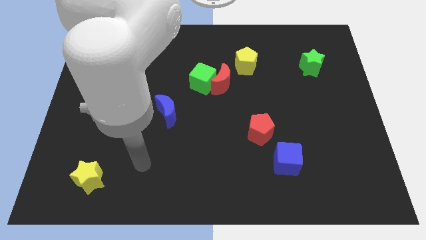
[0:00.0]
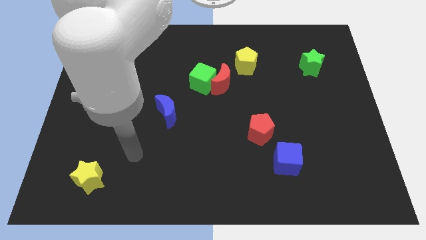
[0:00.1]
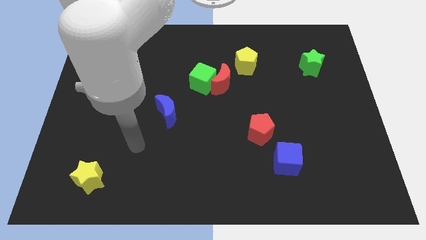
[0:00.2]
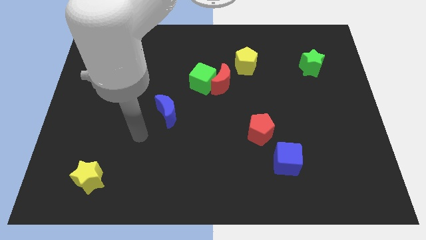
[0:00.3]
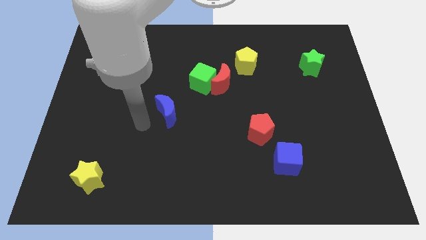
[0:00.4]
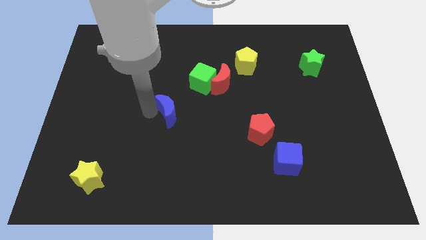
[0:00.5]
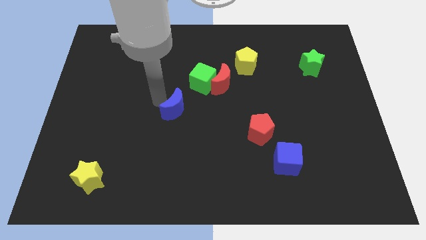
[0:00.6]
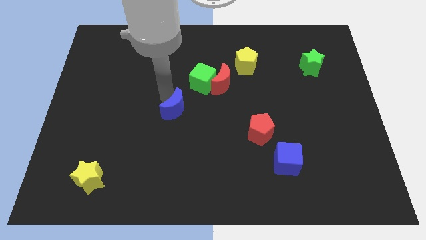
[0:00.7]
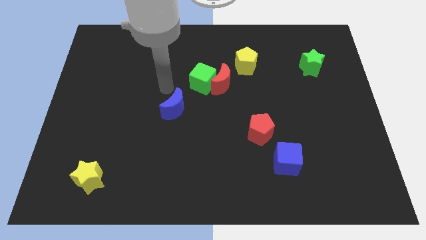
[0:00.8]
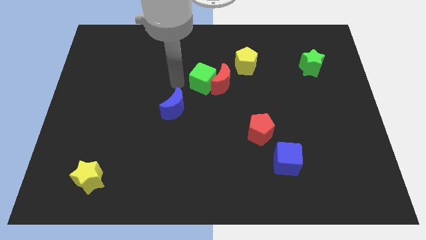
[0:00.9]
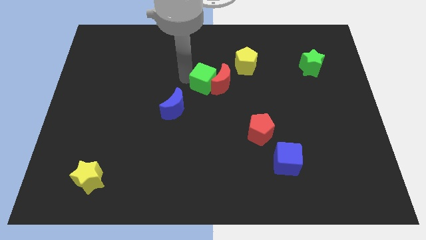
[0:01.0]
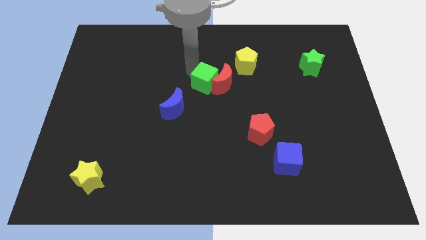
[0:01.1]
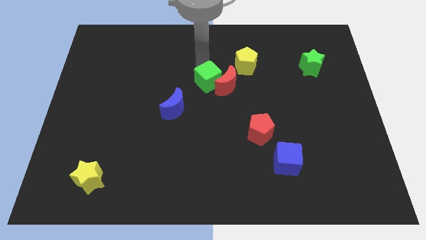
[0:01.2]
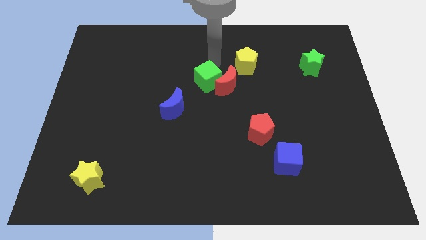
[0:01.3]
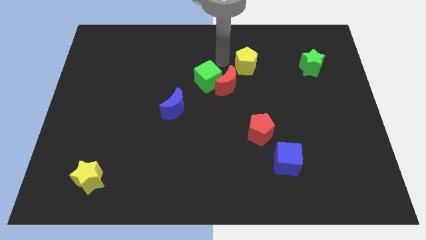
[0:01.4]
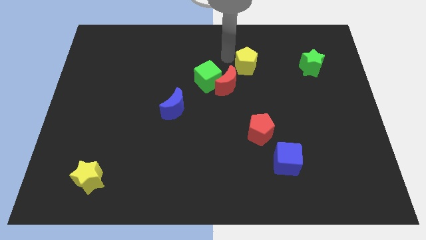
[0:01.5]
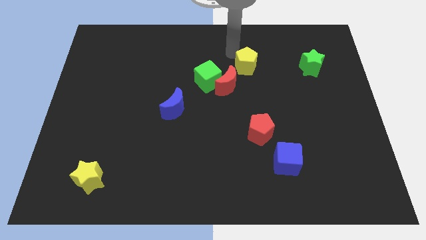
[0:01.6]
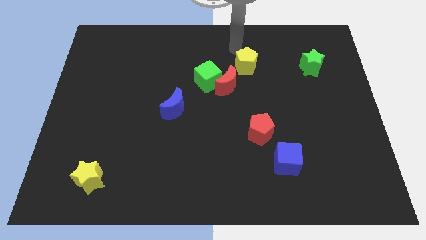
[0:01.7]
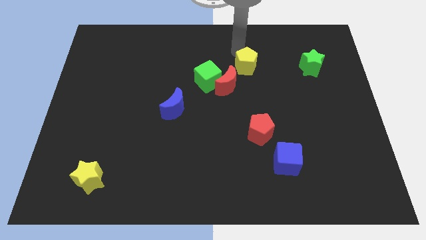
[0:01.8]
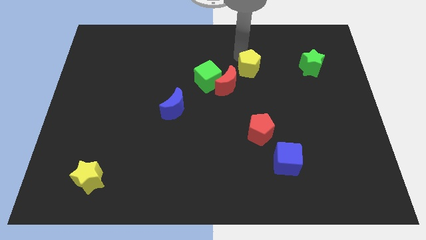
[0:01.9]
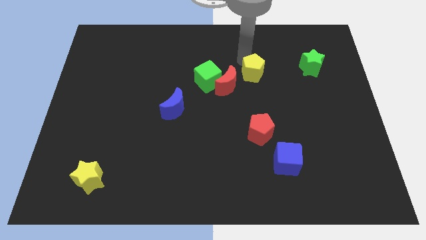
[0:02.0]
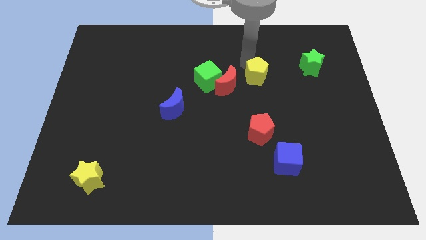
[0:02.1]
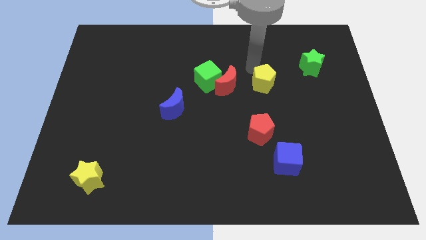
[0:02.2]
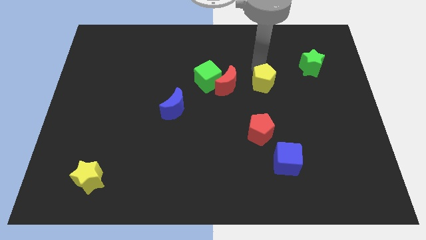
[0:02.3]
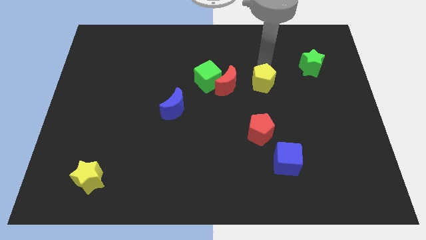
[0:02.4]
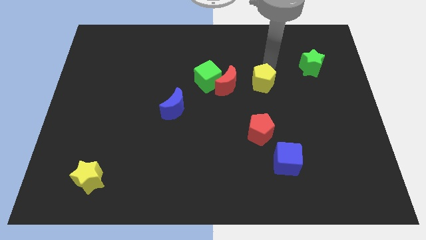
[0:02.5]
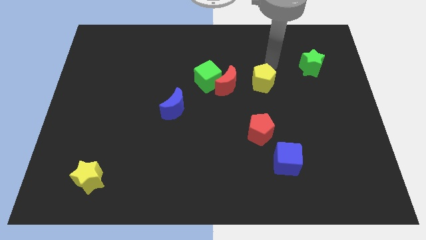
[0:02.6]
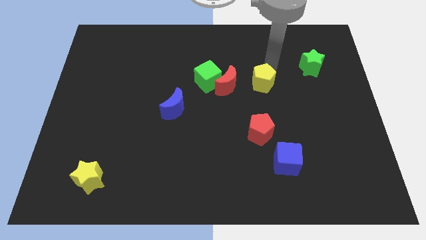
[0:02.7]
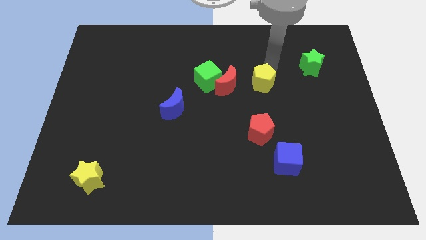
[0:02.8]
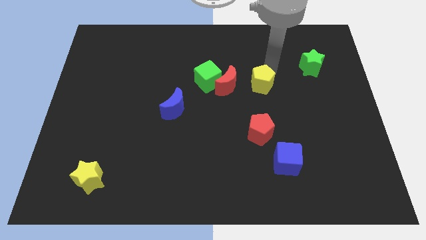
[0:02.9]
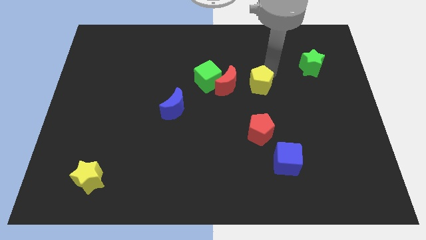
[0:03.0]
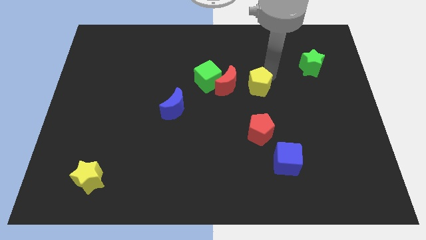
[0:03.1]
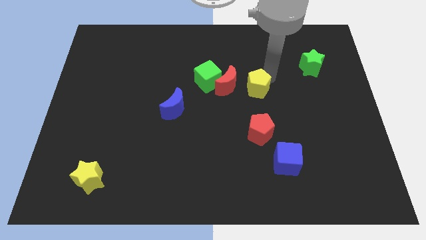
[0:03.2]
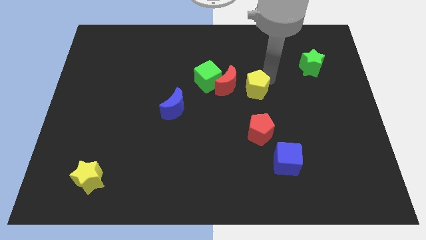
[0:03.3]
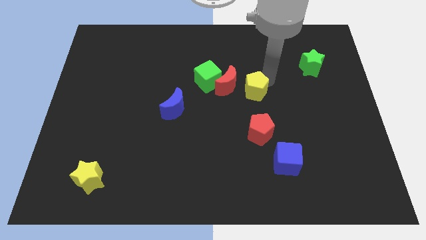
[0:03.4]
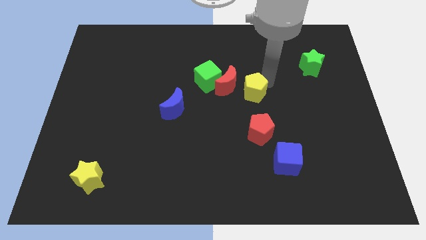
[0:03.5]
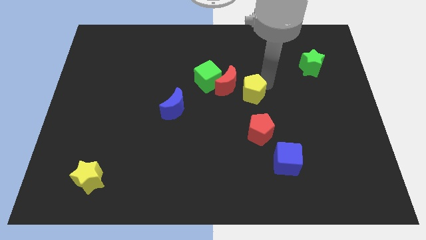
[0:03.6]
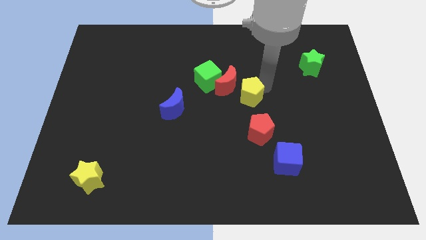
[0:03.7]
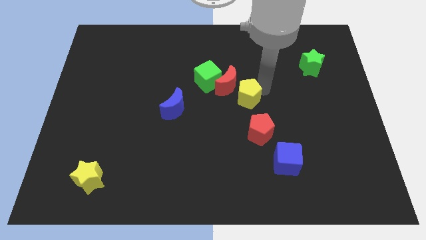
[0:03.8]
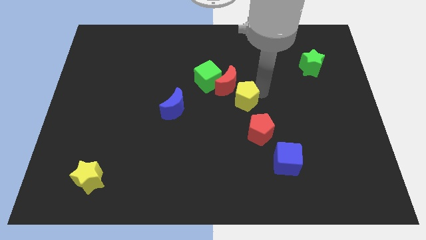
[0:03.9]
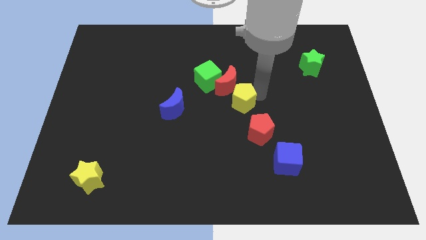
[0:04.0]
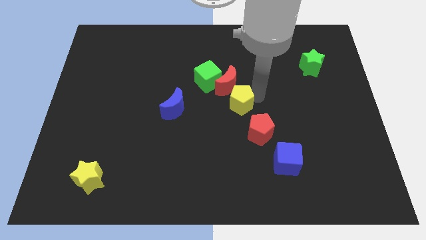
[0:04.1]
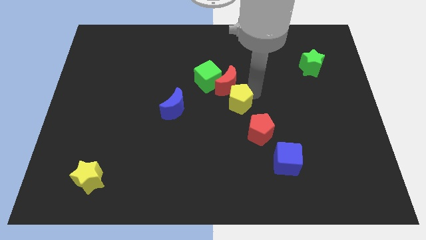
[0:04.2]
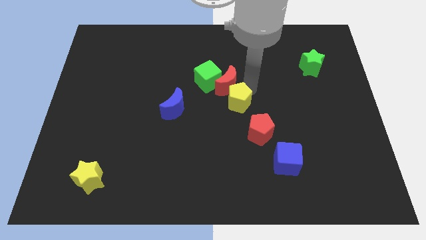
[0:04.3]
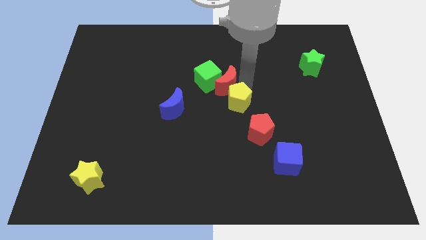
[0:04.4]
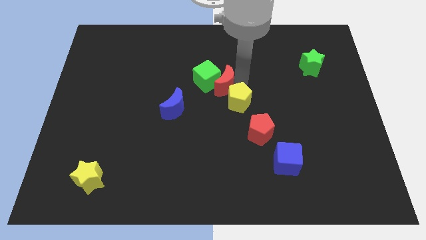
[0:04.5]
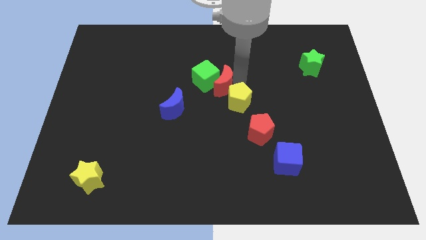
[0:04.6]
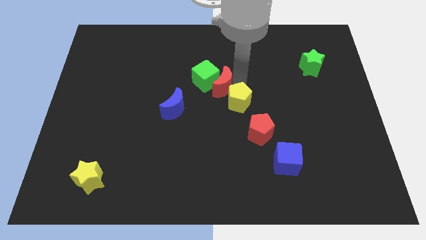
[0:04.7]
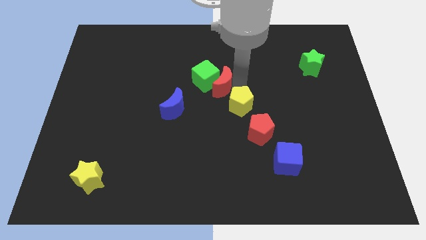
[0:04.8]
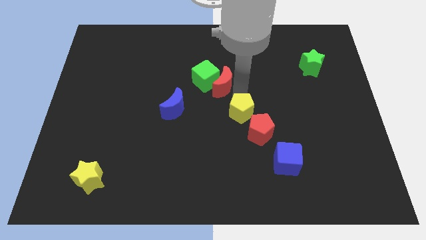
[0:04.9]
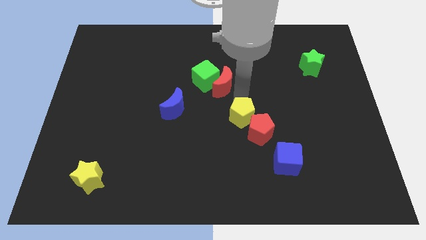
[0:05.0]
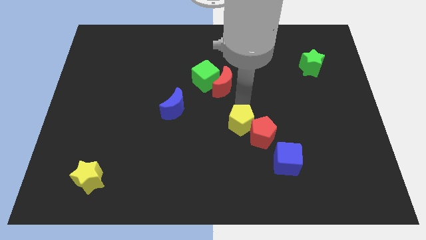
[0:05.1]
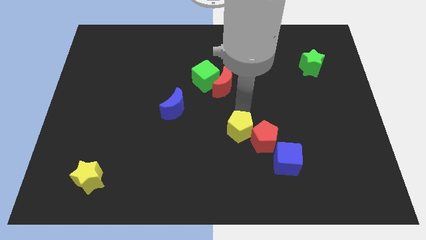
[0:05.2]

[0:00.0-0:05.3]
slide the yellow pentagon downwards

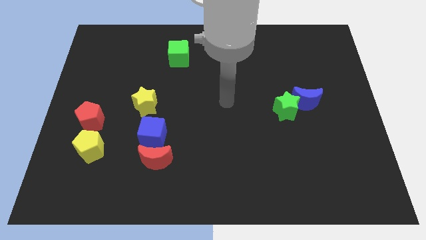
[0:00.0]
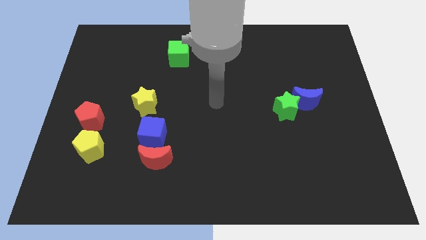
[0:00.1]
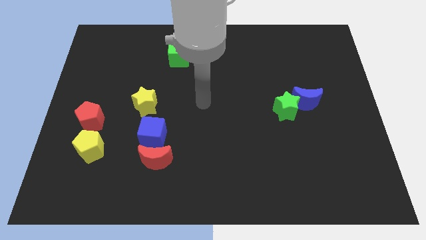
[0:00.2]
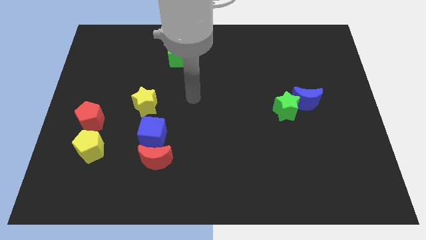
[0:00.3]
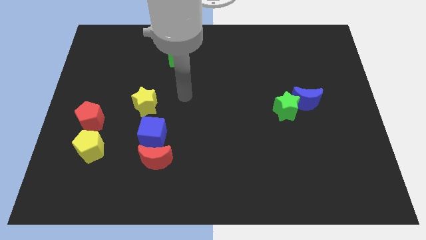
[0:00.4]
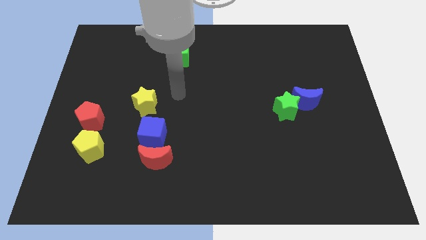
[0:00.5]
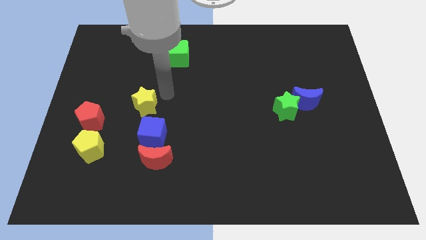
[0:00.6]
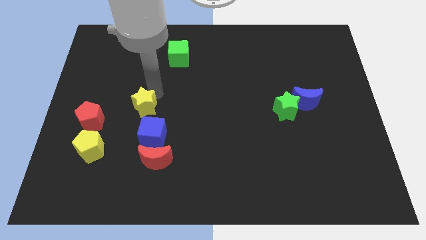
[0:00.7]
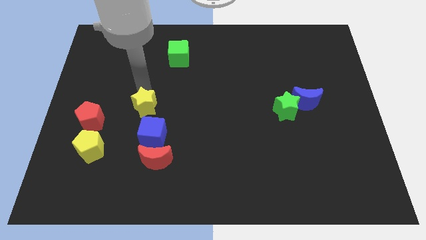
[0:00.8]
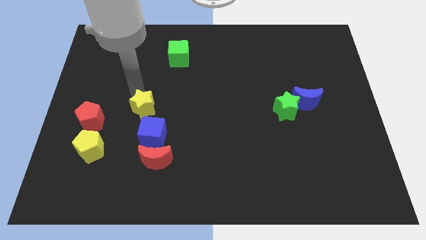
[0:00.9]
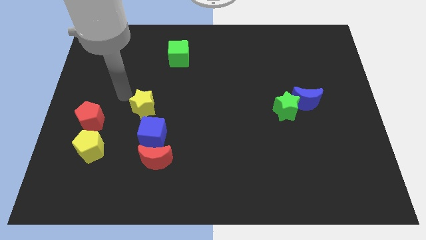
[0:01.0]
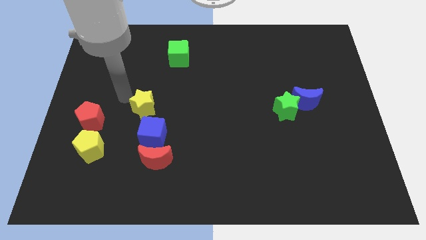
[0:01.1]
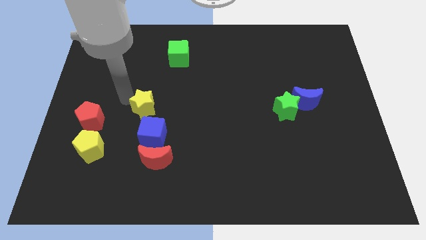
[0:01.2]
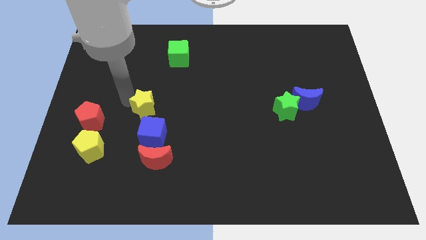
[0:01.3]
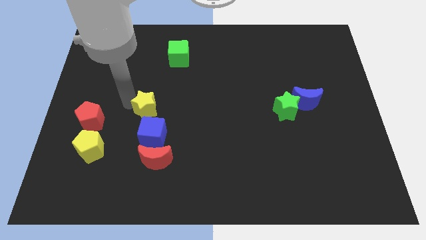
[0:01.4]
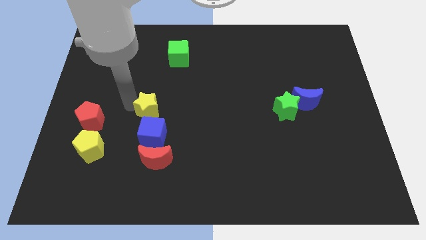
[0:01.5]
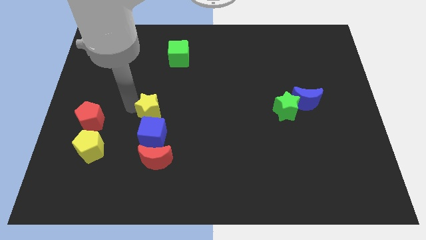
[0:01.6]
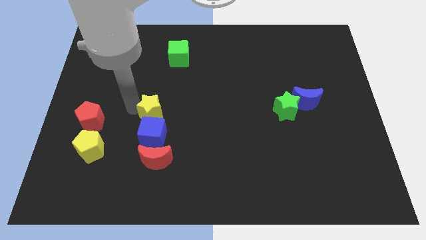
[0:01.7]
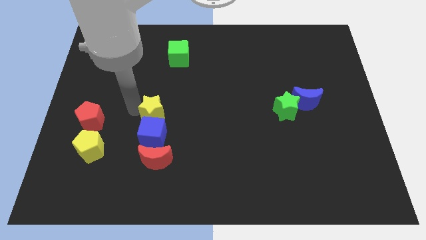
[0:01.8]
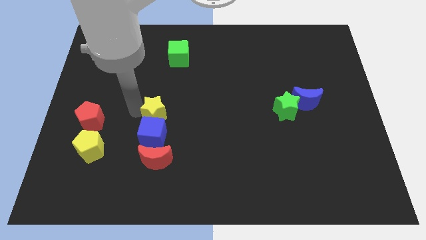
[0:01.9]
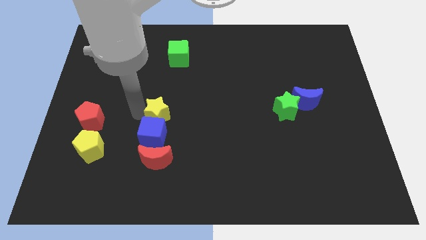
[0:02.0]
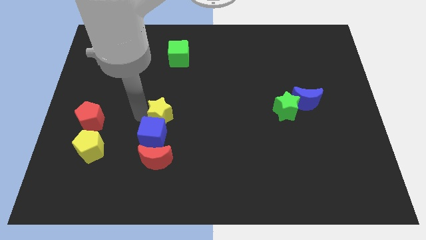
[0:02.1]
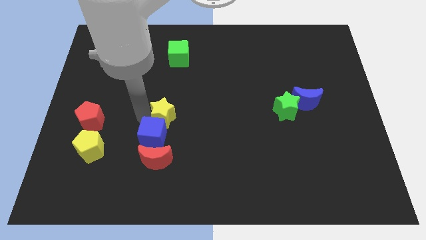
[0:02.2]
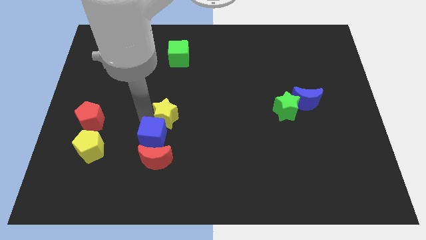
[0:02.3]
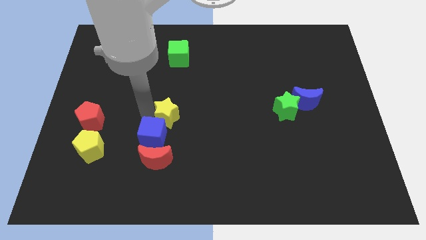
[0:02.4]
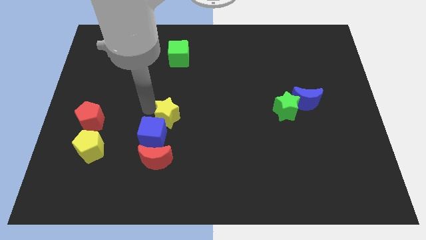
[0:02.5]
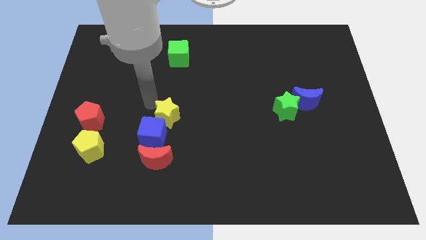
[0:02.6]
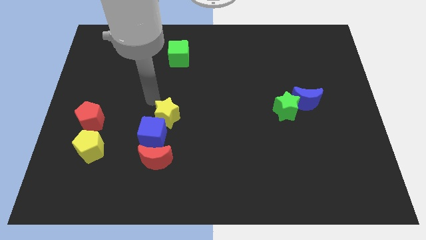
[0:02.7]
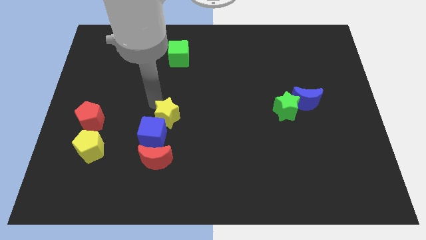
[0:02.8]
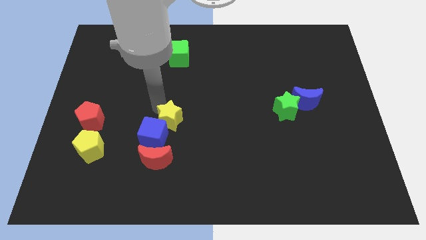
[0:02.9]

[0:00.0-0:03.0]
slightly move the yellow star downwards and to the right
